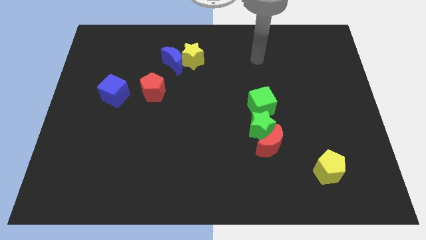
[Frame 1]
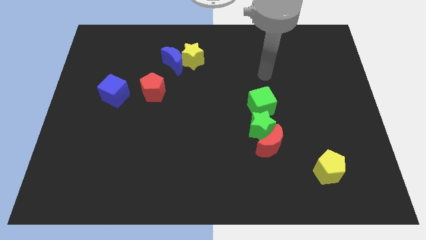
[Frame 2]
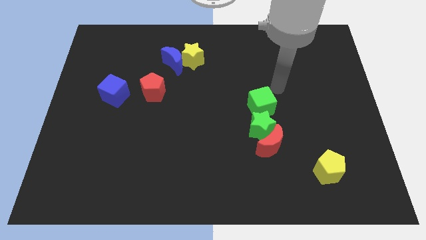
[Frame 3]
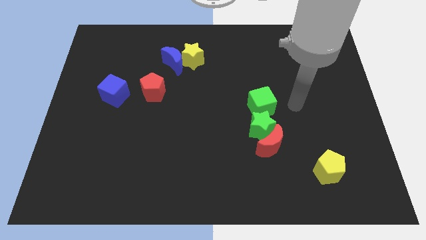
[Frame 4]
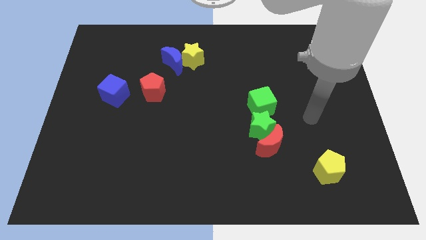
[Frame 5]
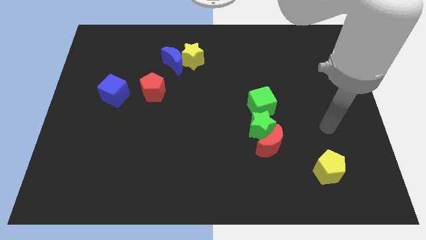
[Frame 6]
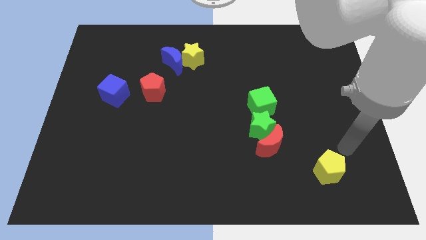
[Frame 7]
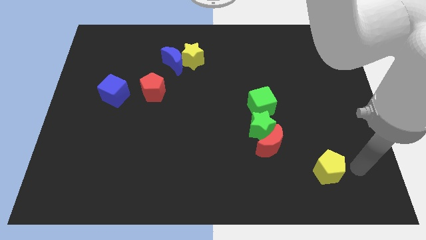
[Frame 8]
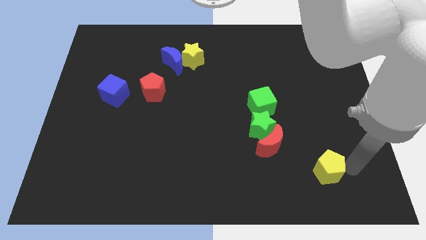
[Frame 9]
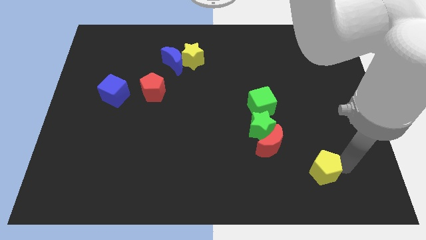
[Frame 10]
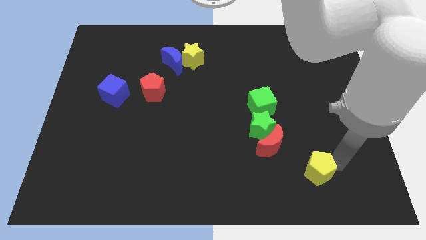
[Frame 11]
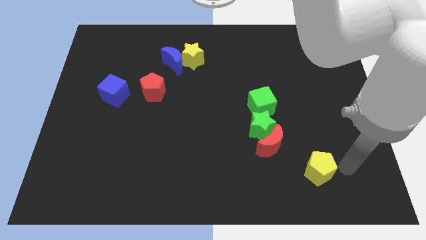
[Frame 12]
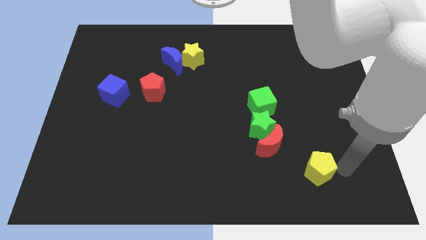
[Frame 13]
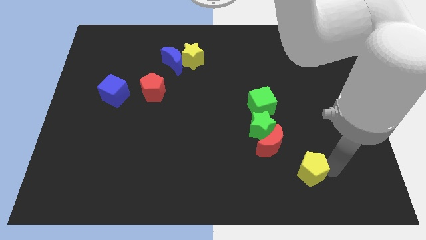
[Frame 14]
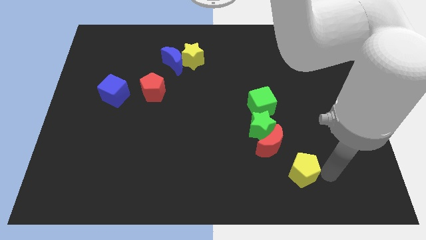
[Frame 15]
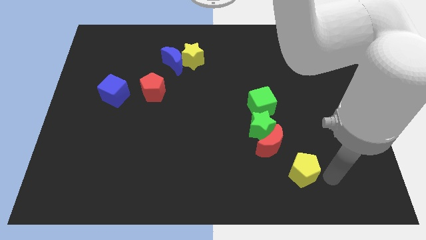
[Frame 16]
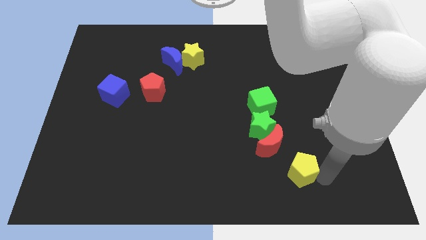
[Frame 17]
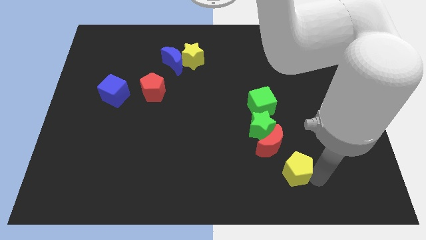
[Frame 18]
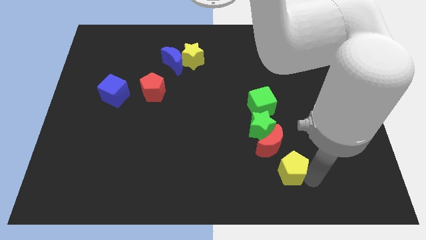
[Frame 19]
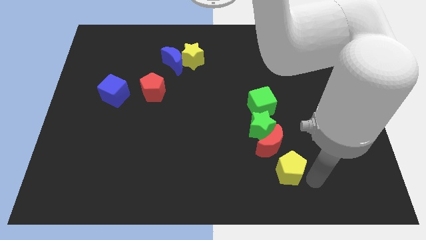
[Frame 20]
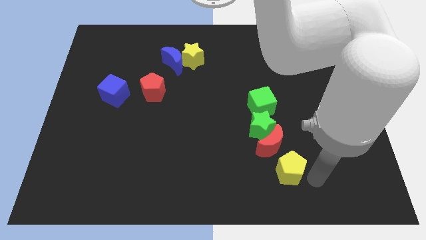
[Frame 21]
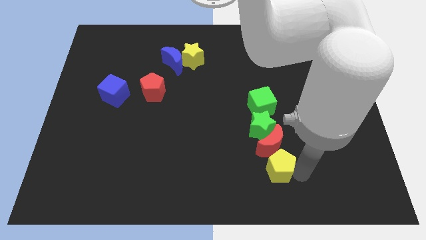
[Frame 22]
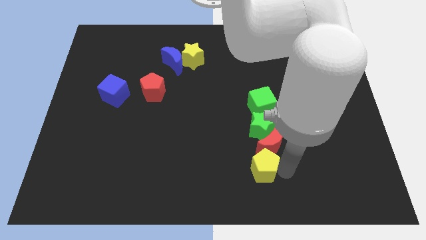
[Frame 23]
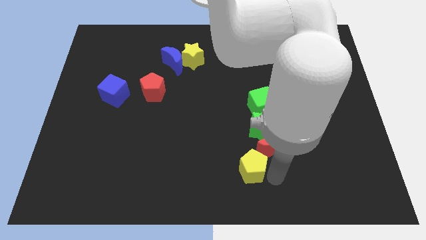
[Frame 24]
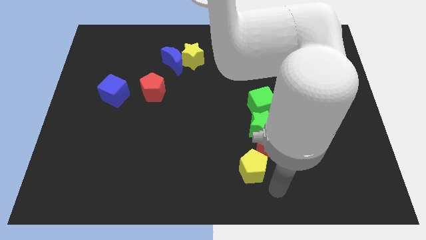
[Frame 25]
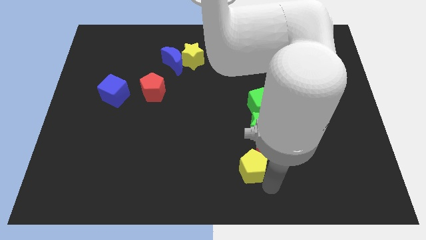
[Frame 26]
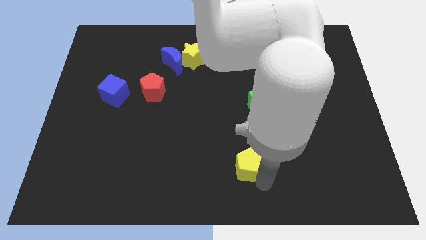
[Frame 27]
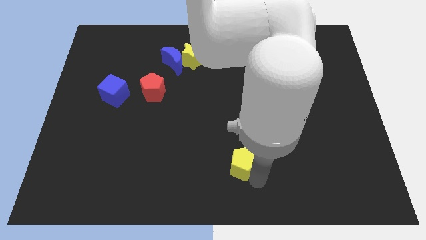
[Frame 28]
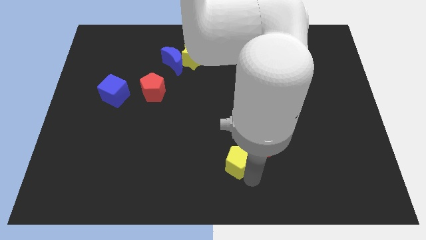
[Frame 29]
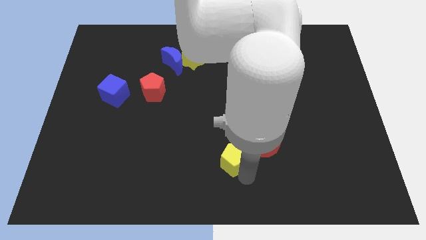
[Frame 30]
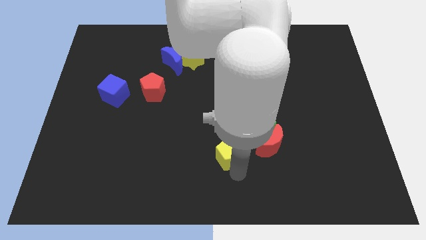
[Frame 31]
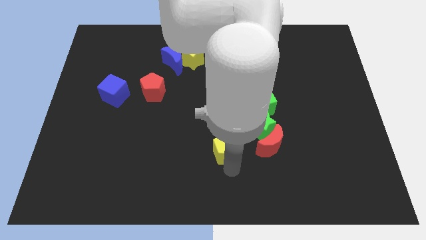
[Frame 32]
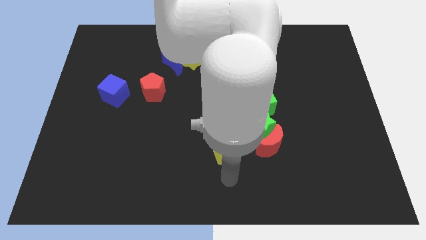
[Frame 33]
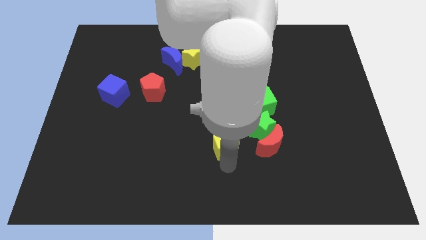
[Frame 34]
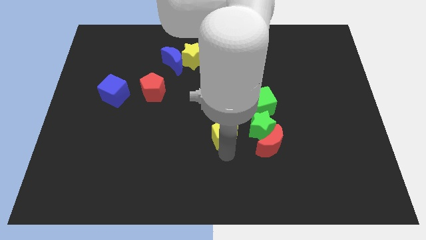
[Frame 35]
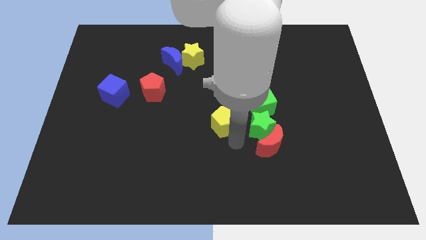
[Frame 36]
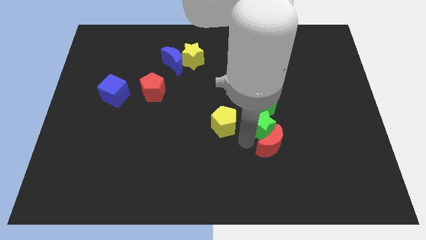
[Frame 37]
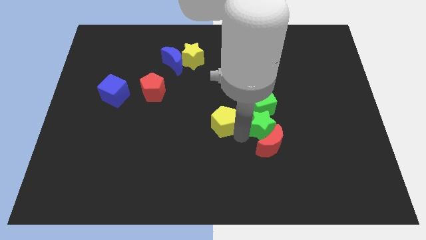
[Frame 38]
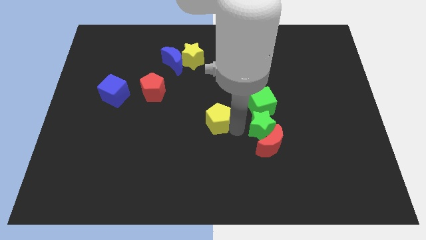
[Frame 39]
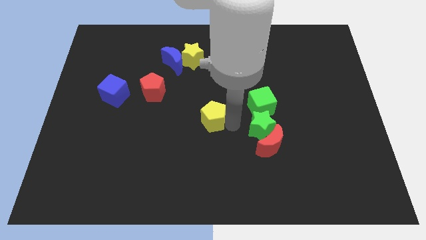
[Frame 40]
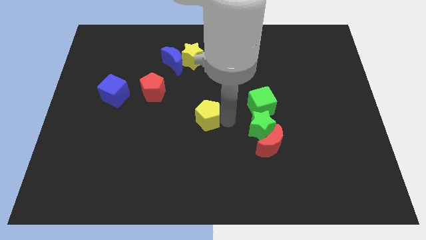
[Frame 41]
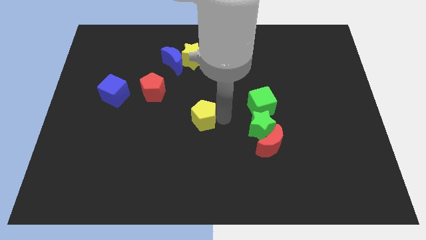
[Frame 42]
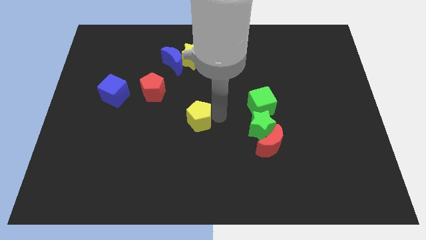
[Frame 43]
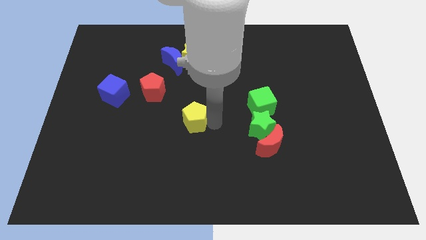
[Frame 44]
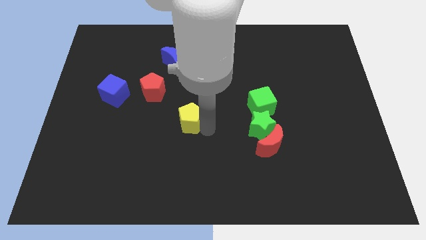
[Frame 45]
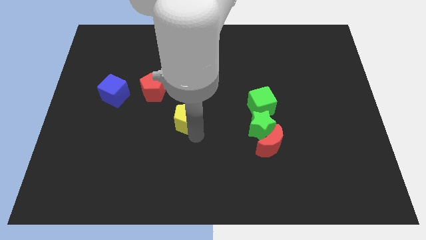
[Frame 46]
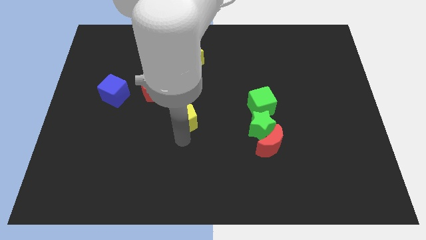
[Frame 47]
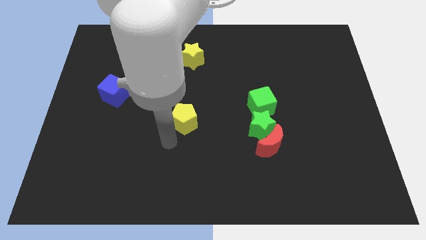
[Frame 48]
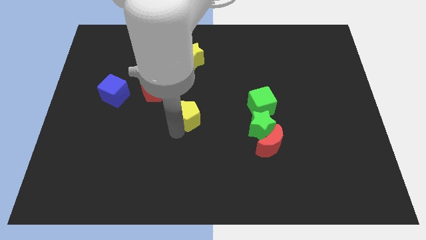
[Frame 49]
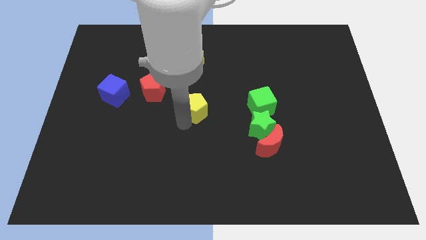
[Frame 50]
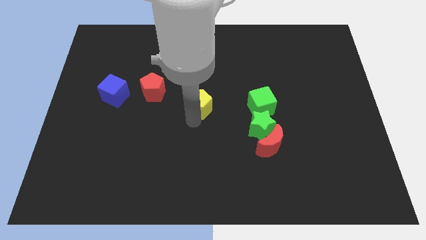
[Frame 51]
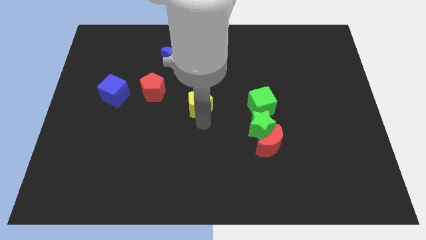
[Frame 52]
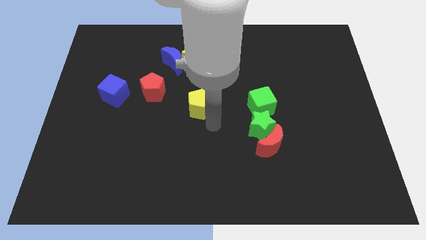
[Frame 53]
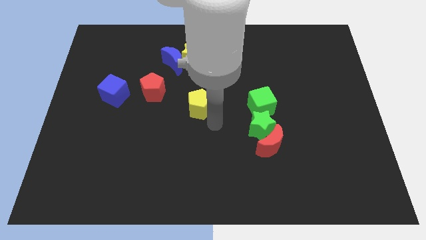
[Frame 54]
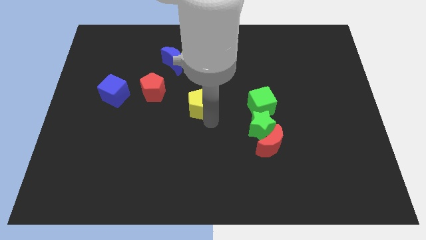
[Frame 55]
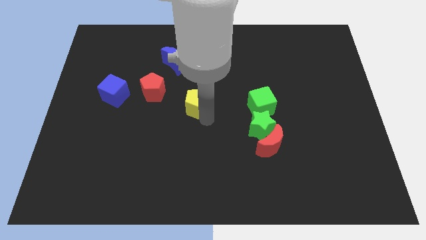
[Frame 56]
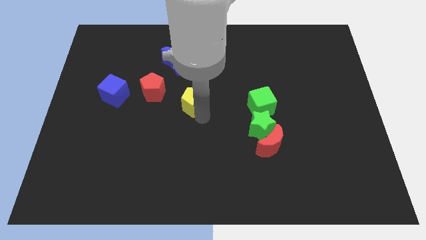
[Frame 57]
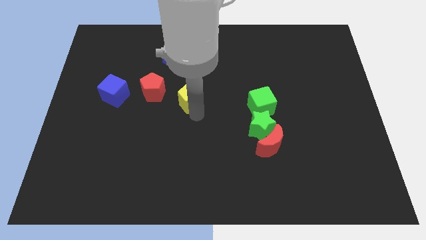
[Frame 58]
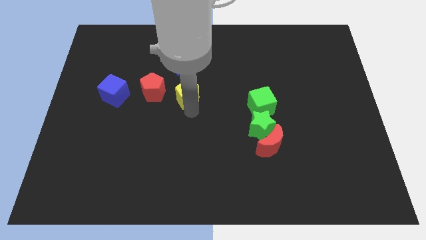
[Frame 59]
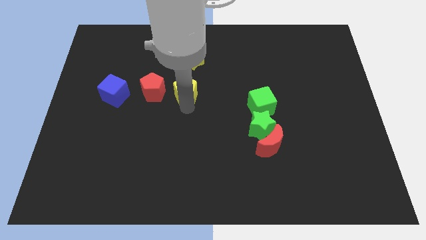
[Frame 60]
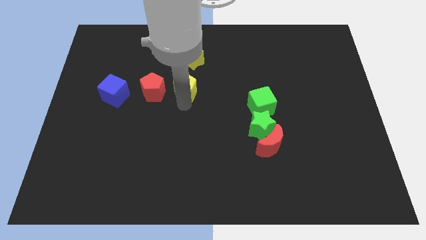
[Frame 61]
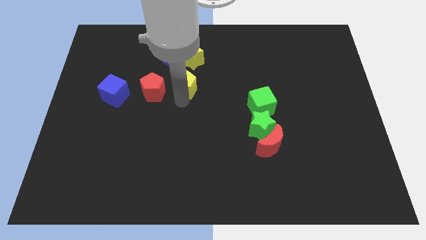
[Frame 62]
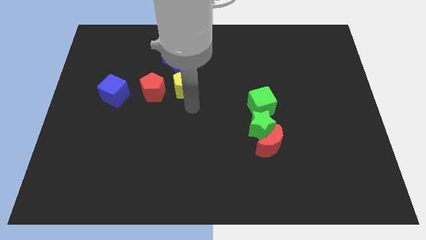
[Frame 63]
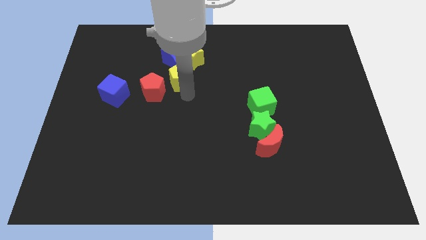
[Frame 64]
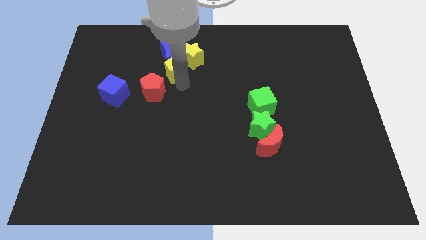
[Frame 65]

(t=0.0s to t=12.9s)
push the yellow pentagon towards the blue moon

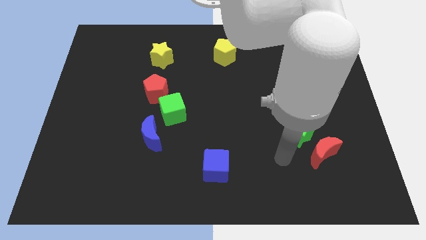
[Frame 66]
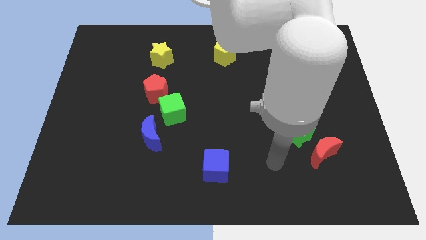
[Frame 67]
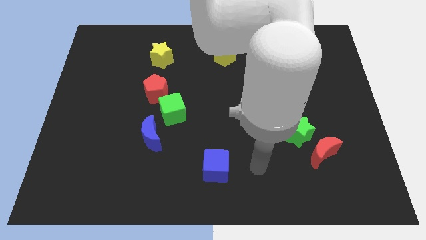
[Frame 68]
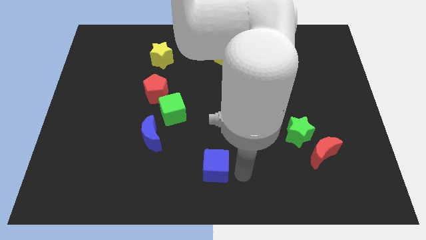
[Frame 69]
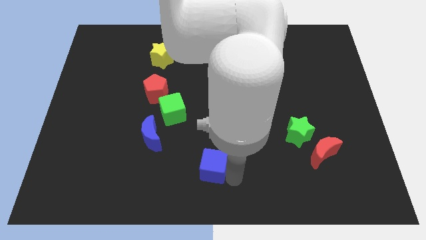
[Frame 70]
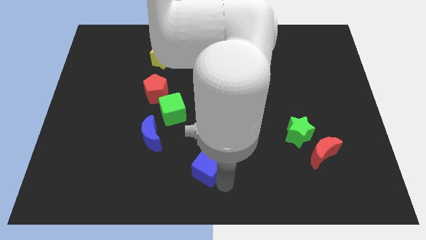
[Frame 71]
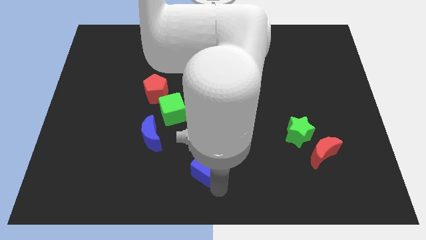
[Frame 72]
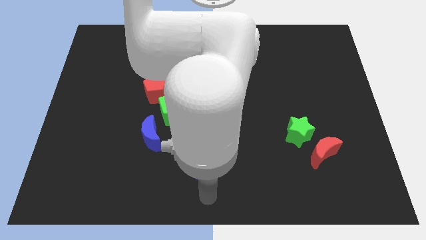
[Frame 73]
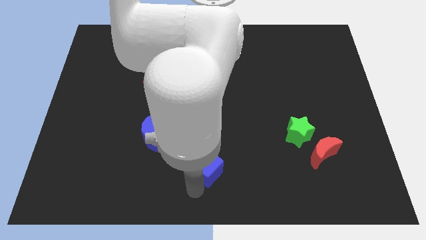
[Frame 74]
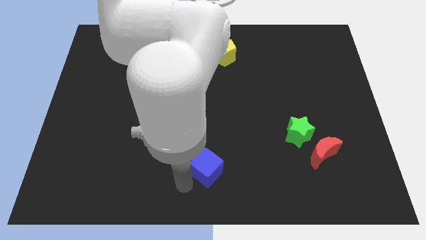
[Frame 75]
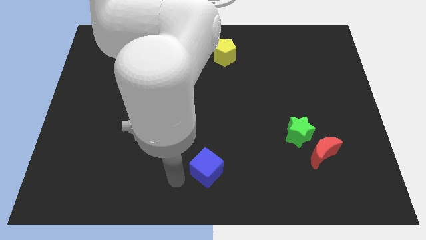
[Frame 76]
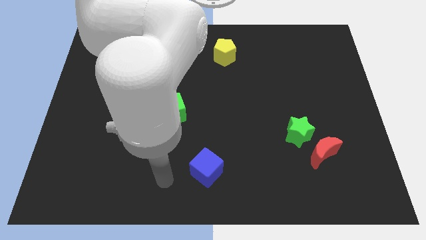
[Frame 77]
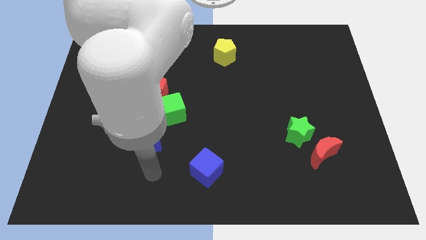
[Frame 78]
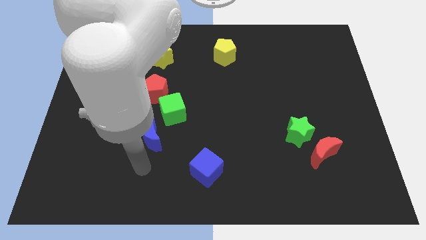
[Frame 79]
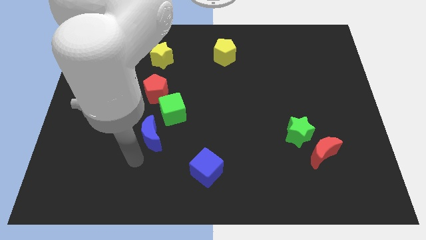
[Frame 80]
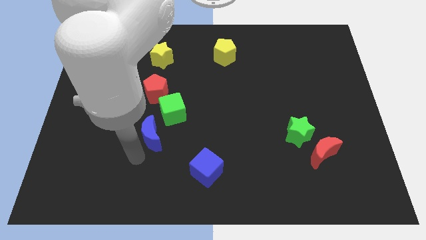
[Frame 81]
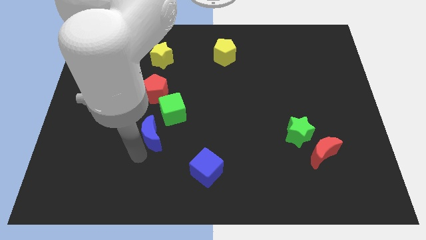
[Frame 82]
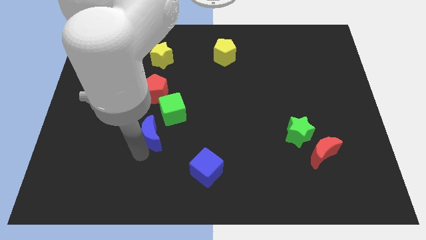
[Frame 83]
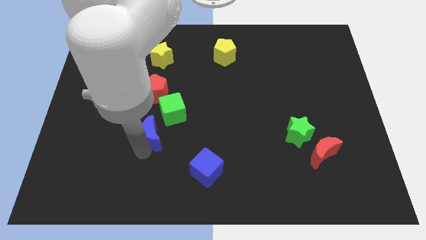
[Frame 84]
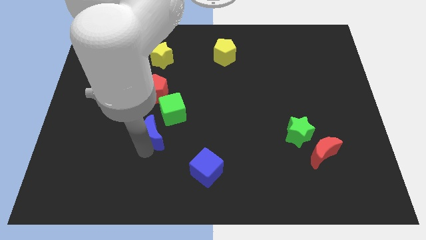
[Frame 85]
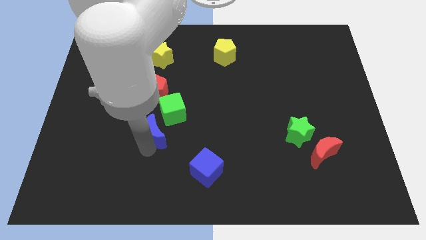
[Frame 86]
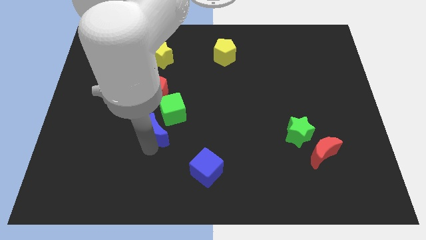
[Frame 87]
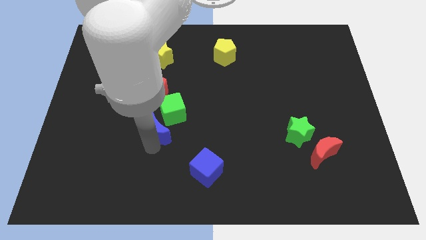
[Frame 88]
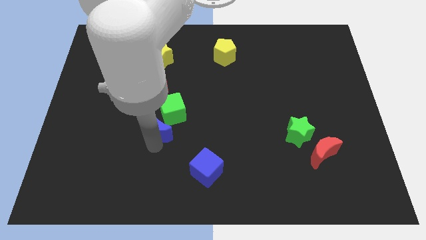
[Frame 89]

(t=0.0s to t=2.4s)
push the blue moon next to the green cube
